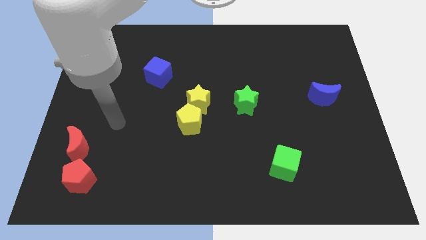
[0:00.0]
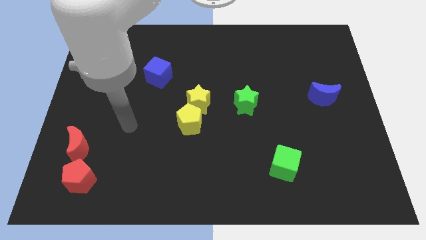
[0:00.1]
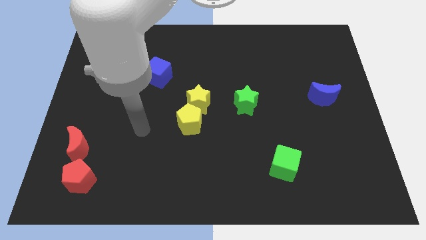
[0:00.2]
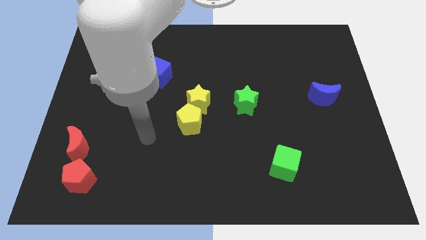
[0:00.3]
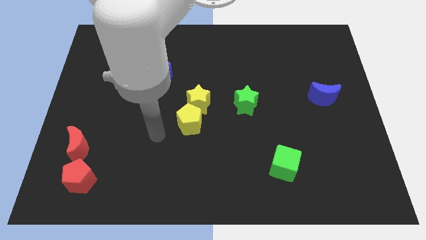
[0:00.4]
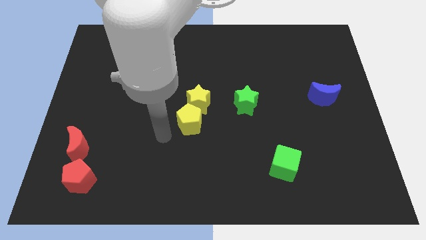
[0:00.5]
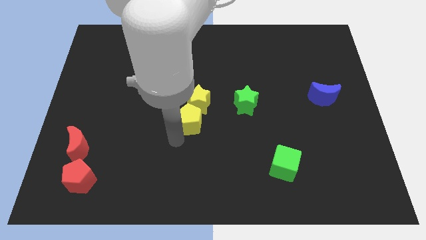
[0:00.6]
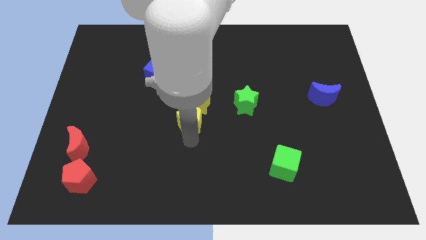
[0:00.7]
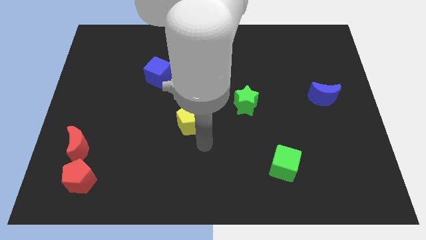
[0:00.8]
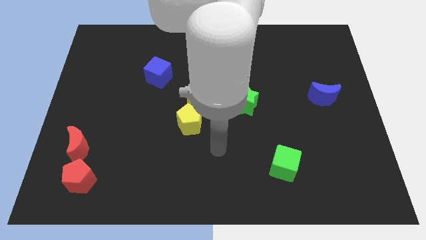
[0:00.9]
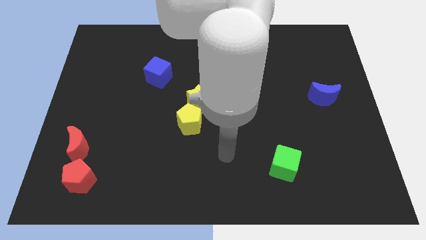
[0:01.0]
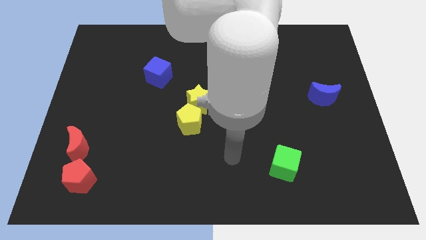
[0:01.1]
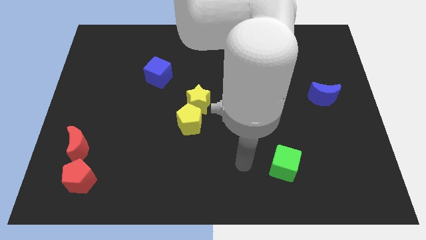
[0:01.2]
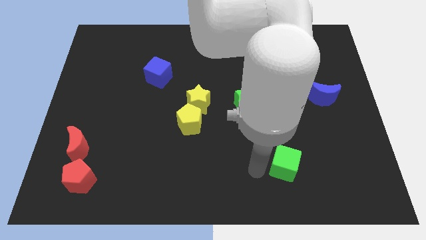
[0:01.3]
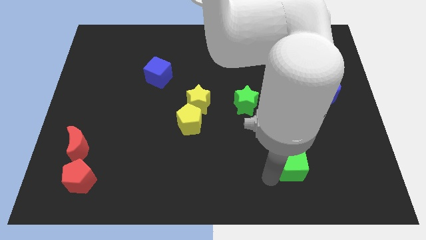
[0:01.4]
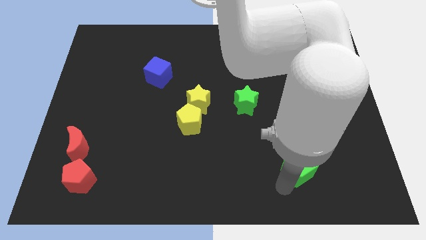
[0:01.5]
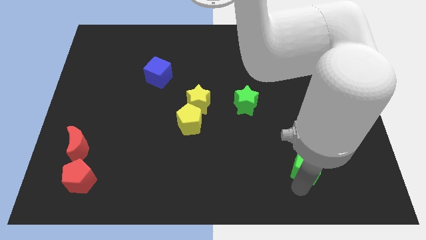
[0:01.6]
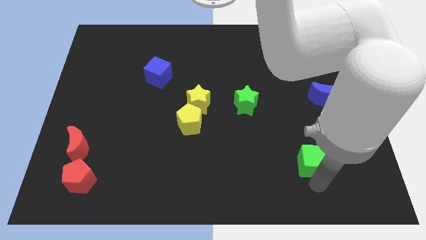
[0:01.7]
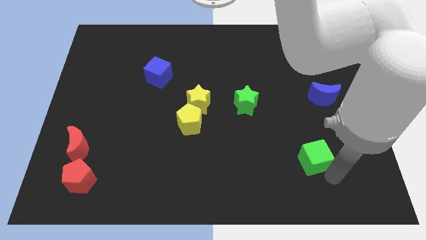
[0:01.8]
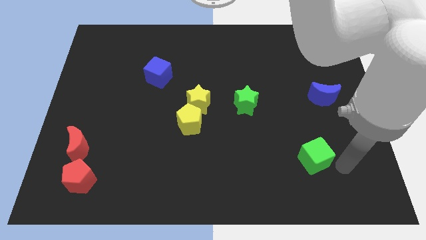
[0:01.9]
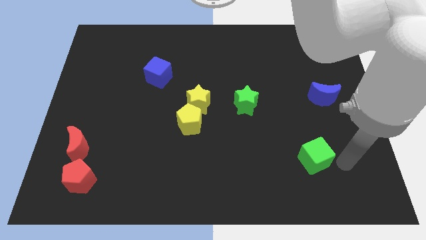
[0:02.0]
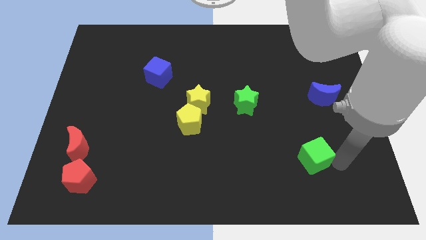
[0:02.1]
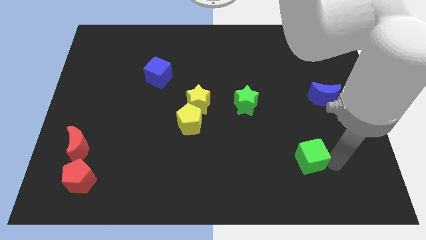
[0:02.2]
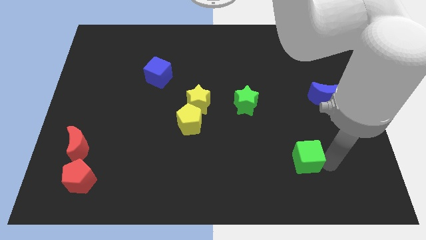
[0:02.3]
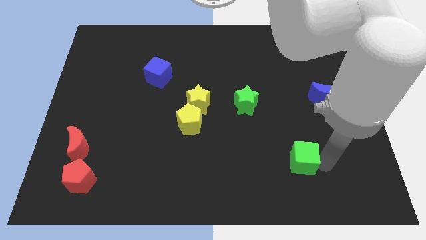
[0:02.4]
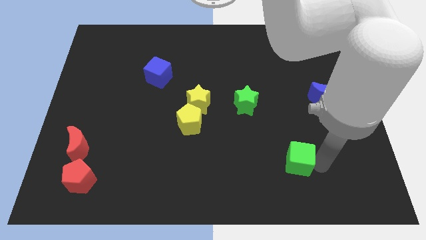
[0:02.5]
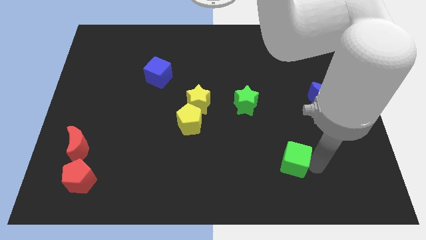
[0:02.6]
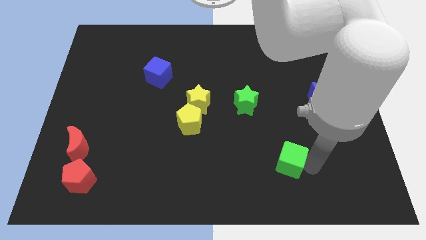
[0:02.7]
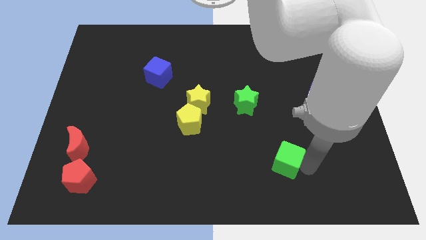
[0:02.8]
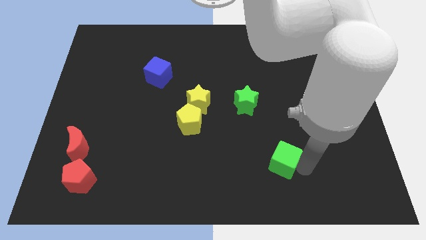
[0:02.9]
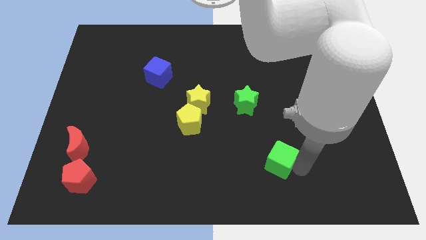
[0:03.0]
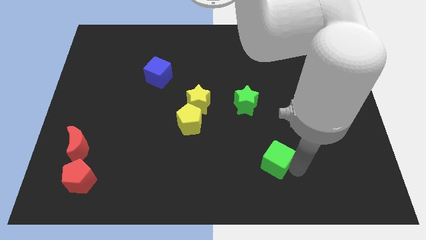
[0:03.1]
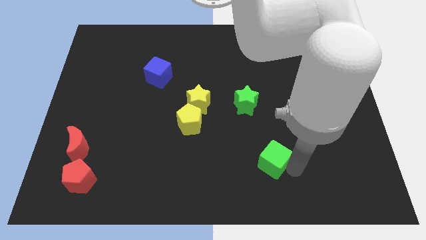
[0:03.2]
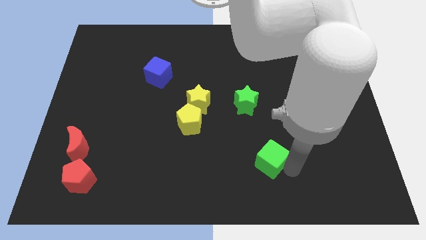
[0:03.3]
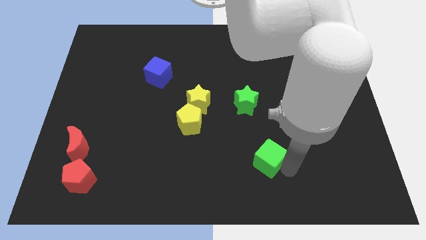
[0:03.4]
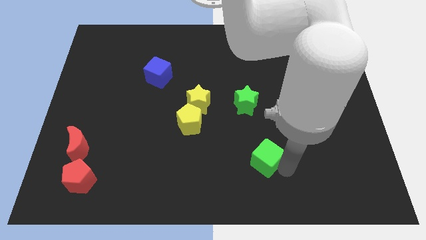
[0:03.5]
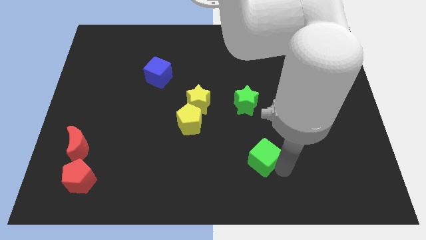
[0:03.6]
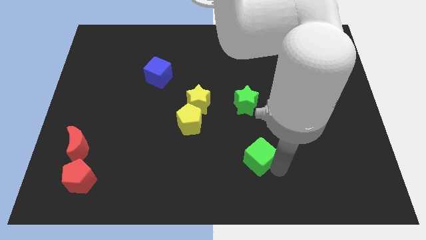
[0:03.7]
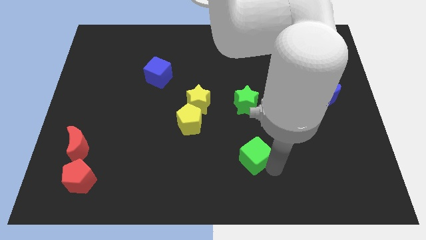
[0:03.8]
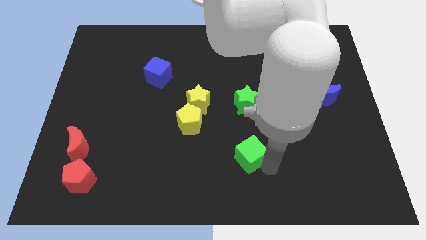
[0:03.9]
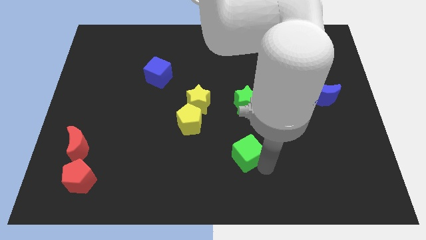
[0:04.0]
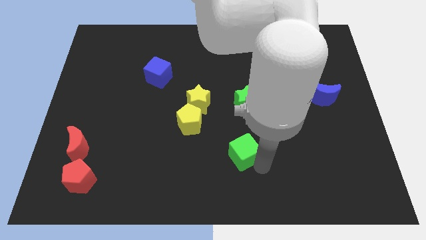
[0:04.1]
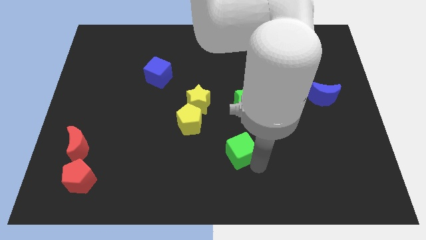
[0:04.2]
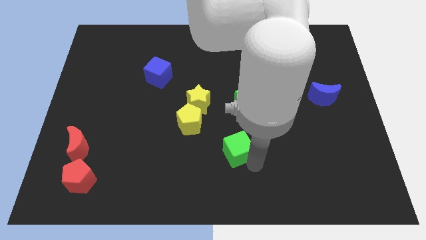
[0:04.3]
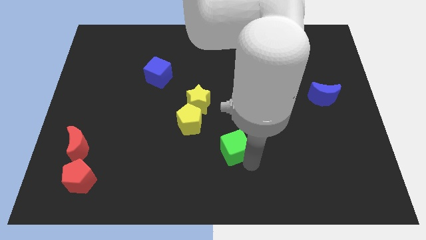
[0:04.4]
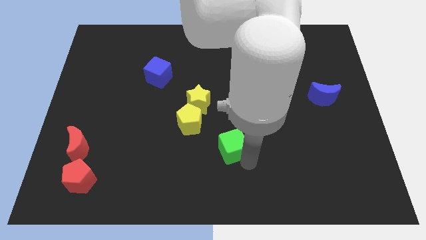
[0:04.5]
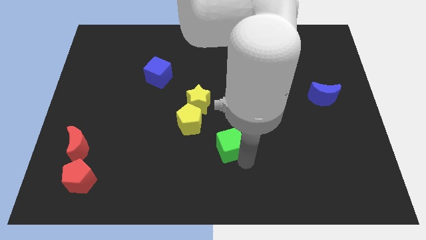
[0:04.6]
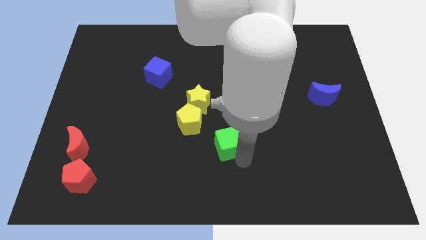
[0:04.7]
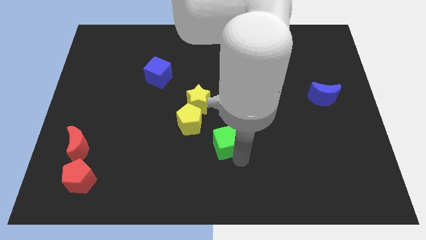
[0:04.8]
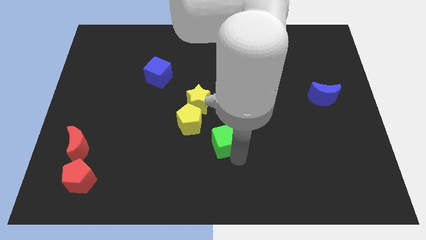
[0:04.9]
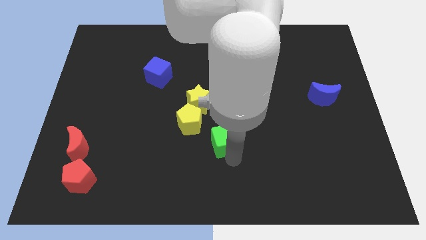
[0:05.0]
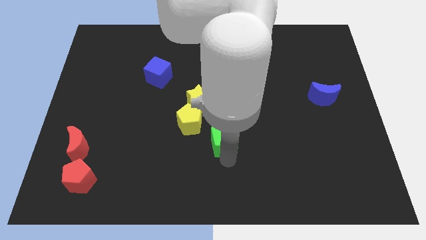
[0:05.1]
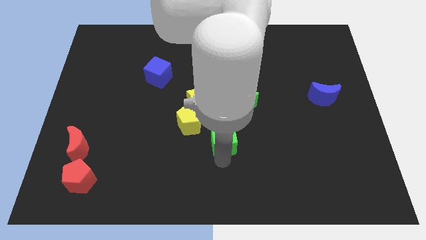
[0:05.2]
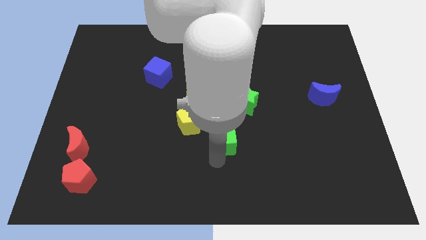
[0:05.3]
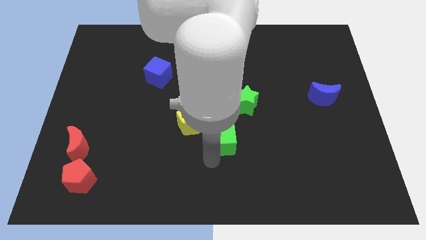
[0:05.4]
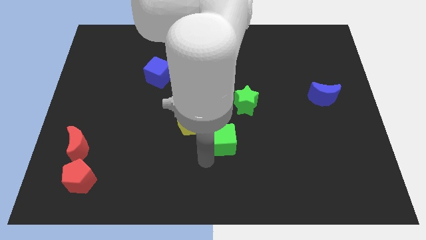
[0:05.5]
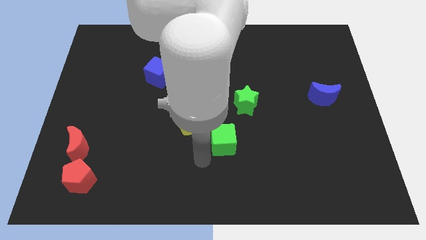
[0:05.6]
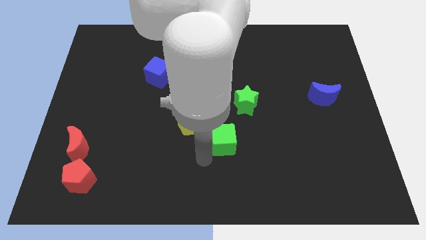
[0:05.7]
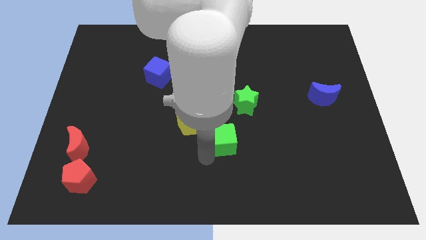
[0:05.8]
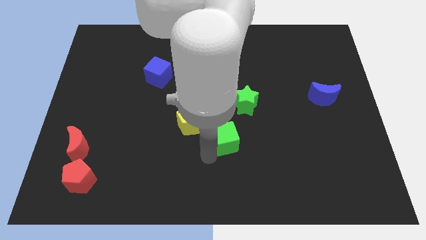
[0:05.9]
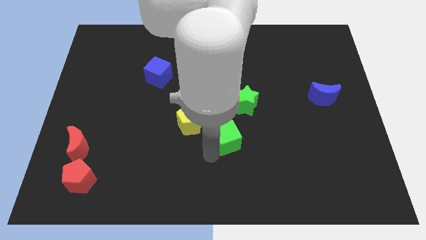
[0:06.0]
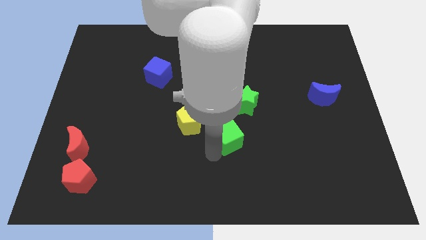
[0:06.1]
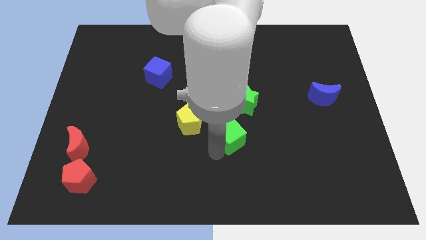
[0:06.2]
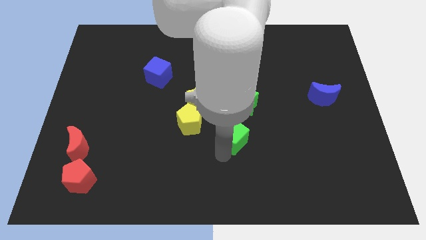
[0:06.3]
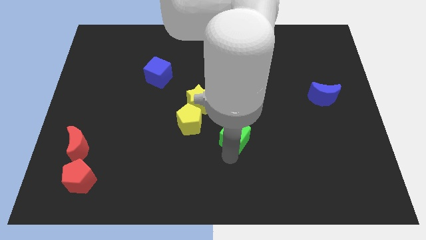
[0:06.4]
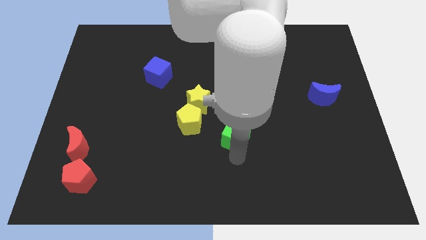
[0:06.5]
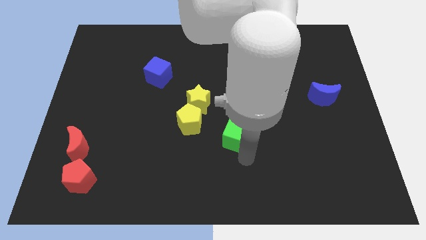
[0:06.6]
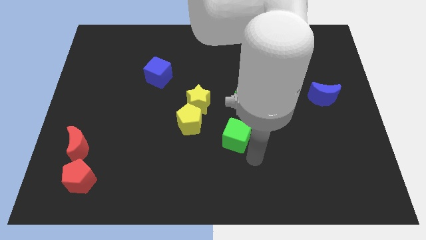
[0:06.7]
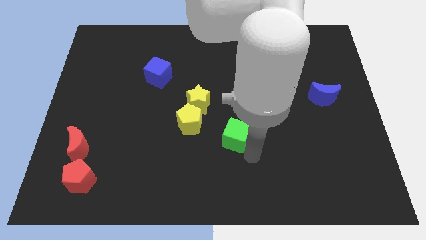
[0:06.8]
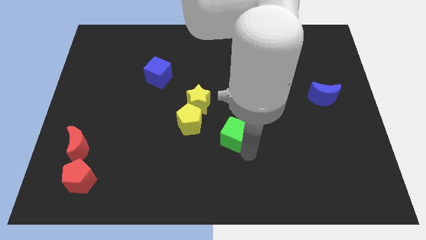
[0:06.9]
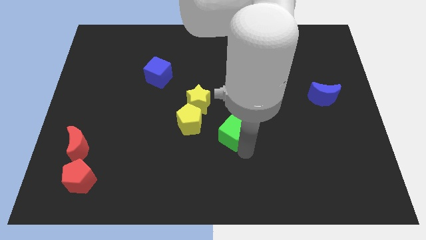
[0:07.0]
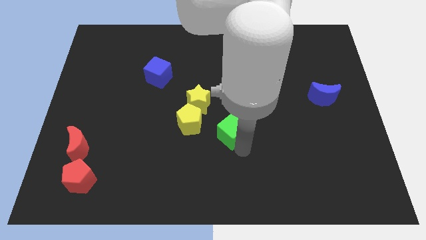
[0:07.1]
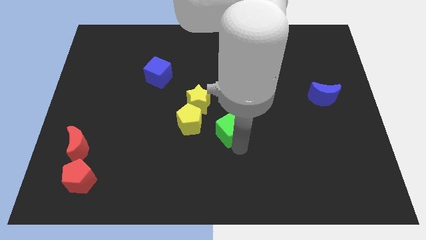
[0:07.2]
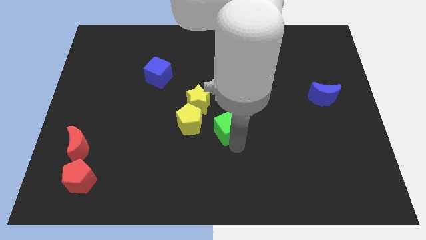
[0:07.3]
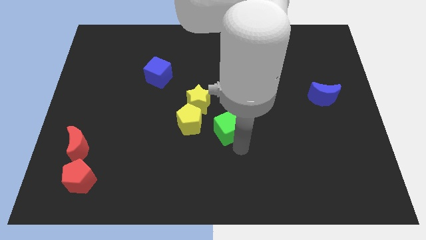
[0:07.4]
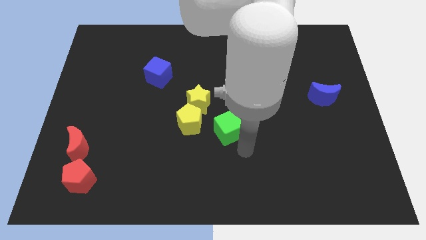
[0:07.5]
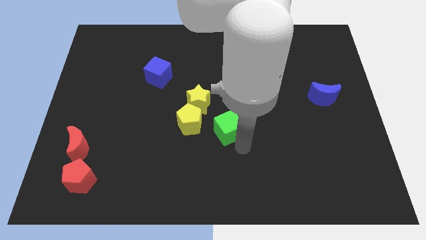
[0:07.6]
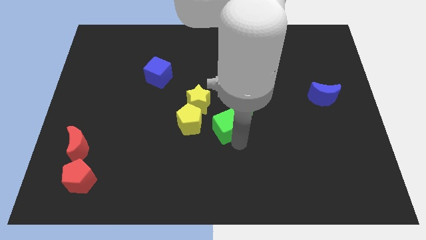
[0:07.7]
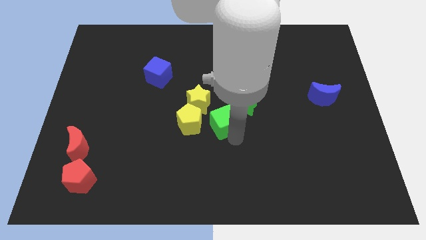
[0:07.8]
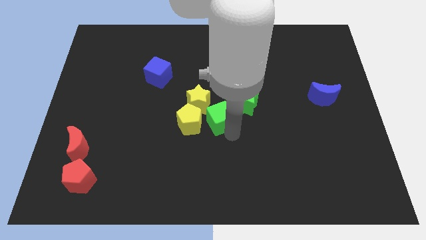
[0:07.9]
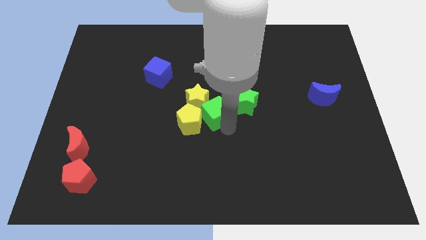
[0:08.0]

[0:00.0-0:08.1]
slide the green cube to the yellow star
